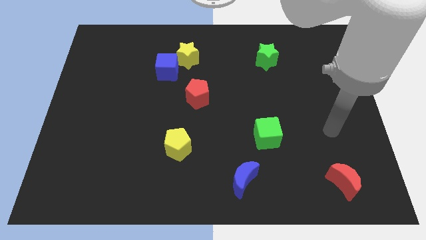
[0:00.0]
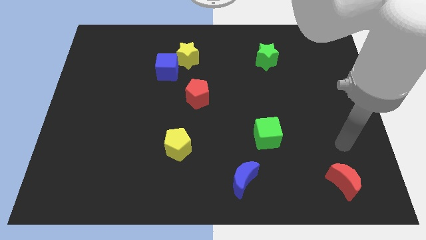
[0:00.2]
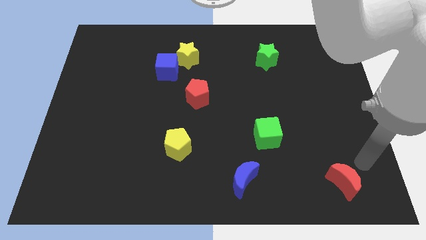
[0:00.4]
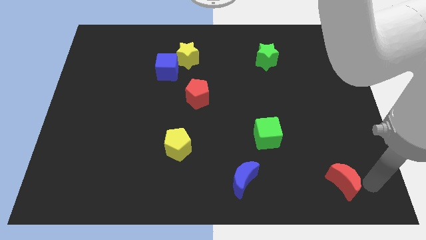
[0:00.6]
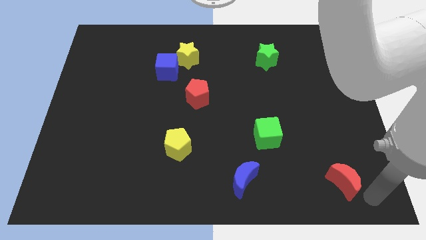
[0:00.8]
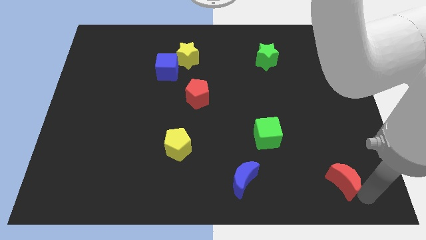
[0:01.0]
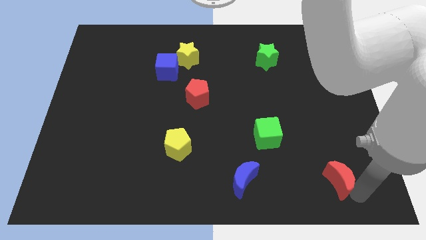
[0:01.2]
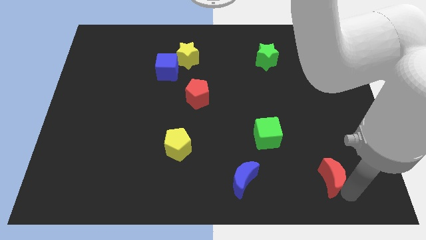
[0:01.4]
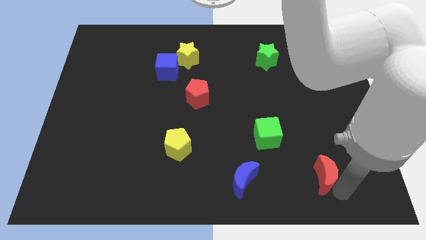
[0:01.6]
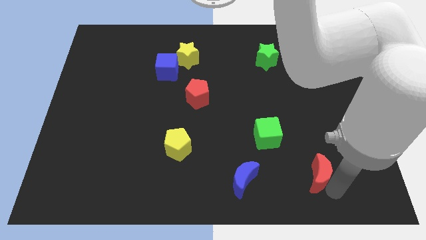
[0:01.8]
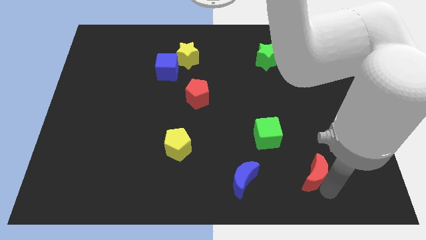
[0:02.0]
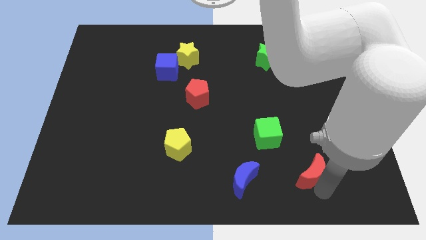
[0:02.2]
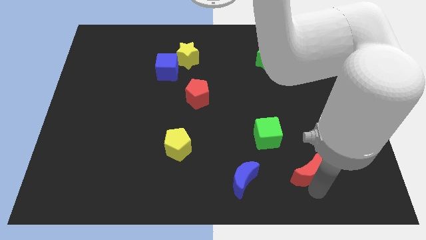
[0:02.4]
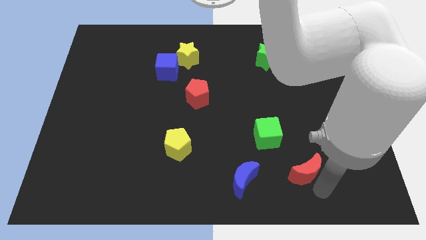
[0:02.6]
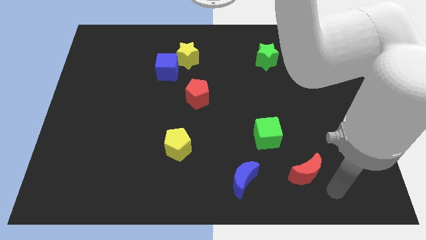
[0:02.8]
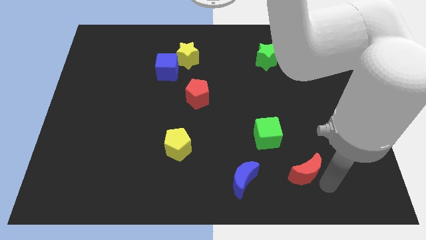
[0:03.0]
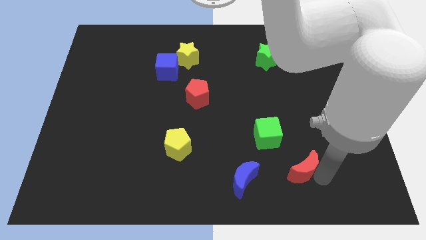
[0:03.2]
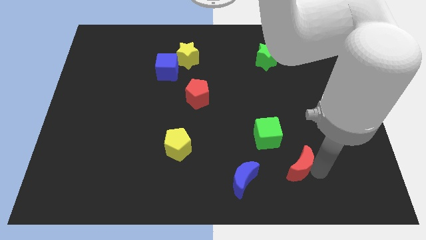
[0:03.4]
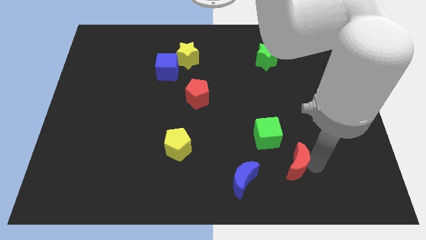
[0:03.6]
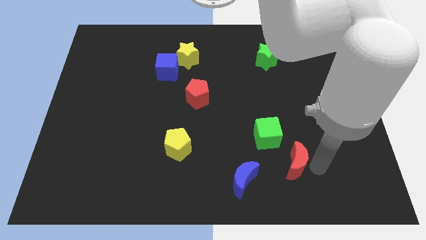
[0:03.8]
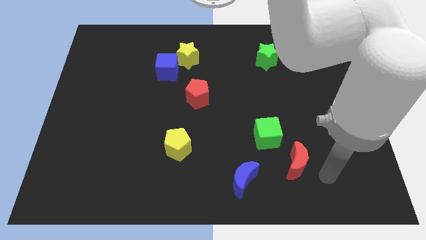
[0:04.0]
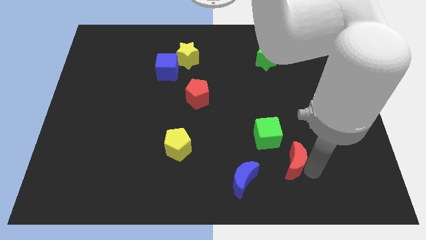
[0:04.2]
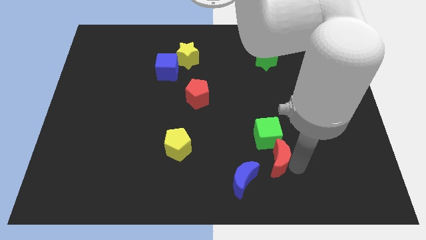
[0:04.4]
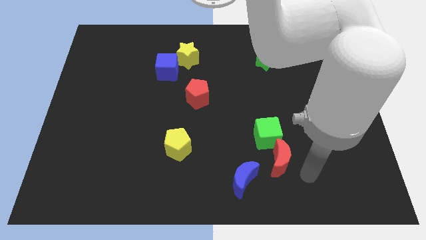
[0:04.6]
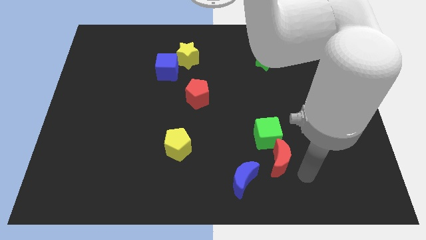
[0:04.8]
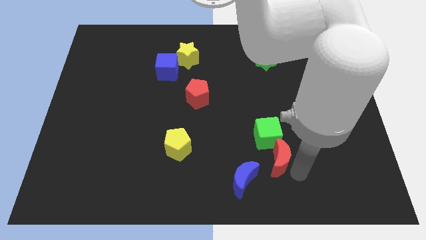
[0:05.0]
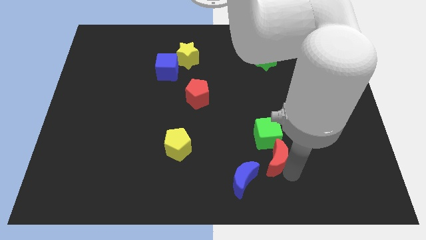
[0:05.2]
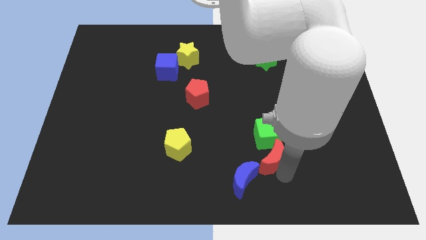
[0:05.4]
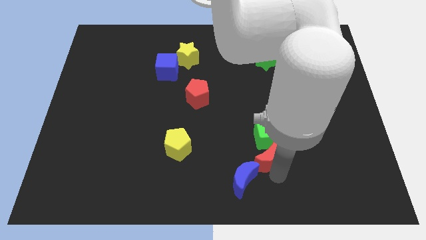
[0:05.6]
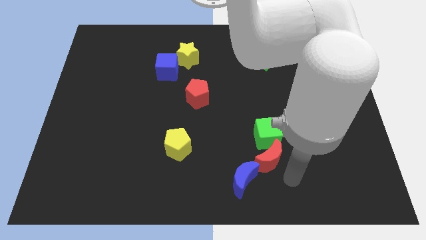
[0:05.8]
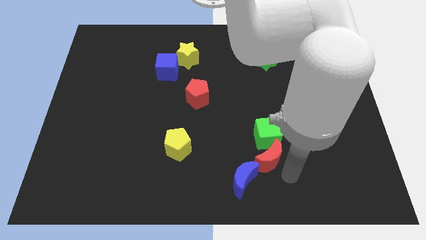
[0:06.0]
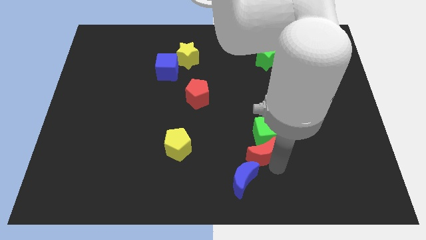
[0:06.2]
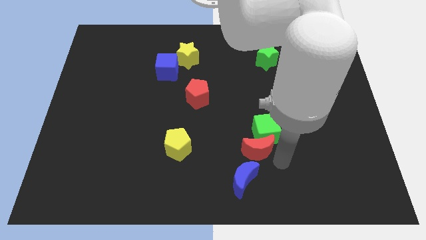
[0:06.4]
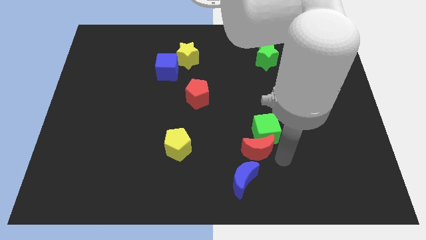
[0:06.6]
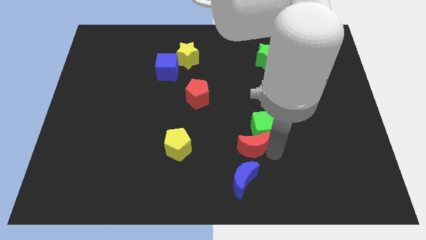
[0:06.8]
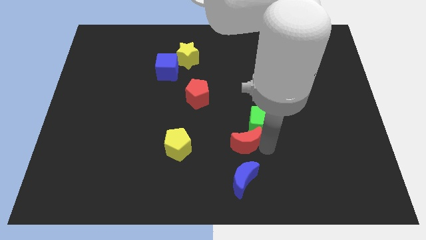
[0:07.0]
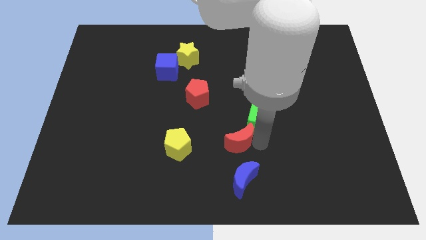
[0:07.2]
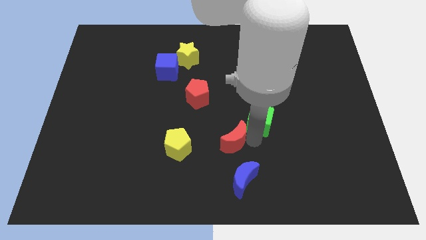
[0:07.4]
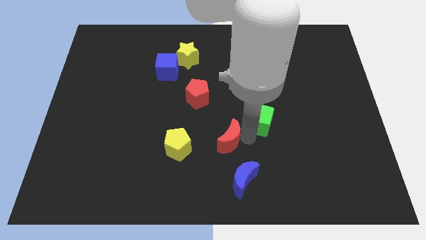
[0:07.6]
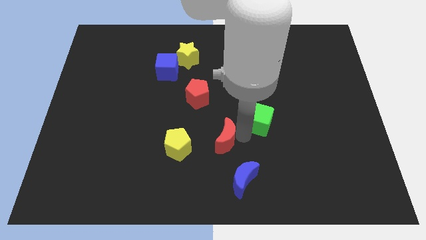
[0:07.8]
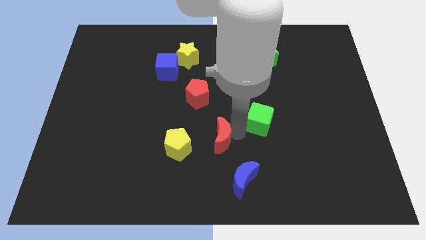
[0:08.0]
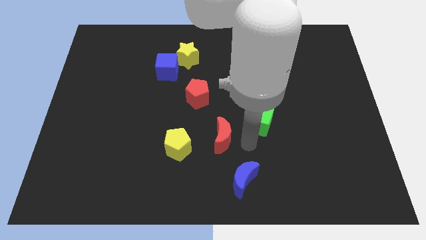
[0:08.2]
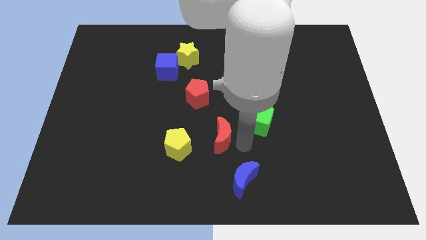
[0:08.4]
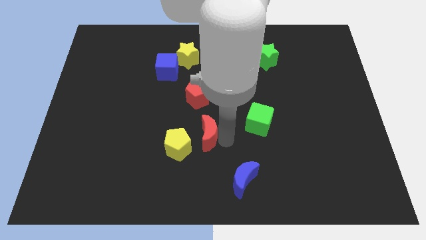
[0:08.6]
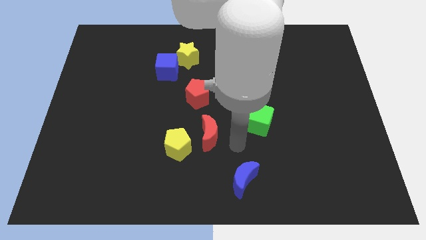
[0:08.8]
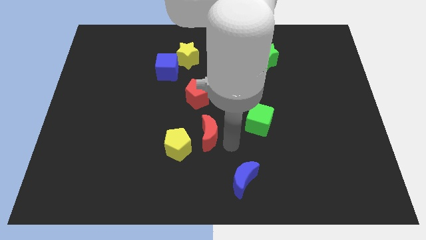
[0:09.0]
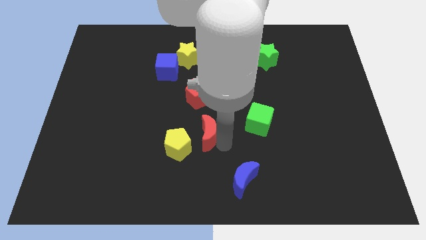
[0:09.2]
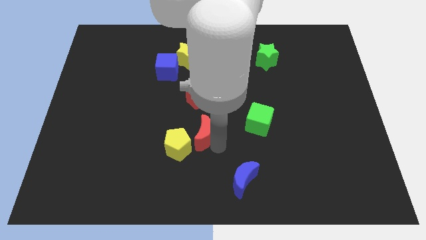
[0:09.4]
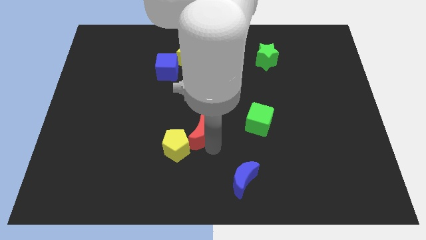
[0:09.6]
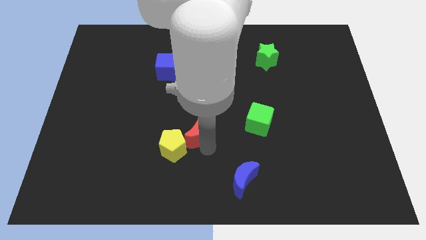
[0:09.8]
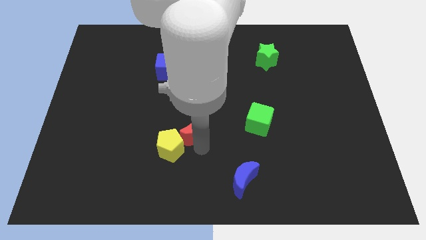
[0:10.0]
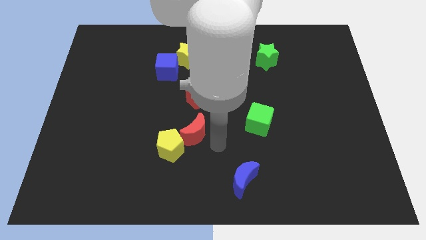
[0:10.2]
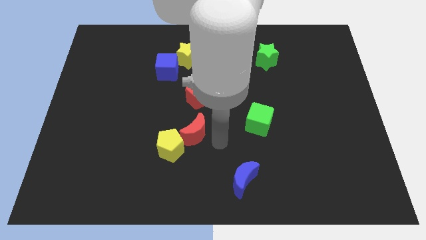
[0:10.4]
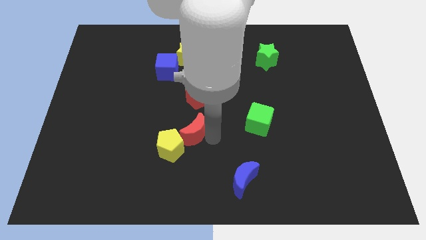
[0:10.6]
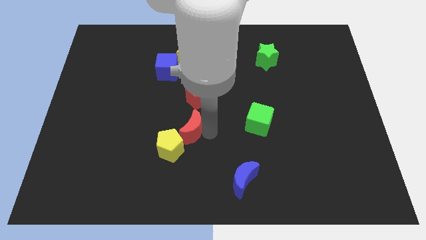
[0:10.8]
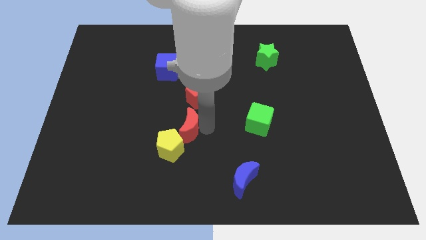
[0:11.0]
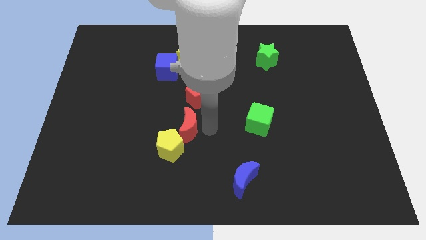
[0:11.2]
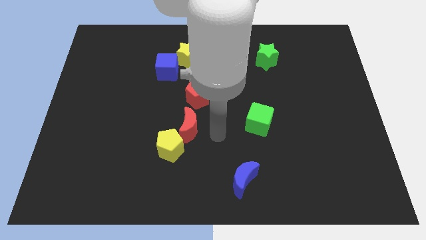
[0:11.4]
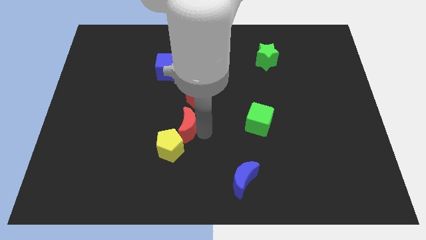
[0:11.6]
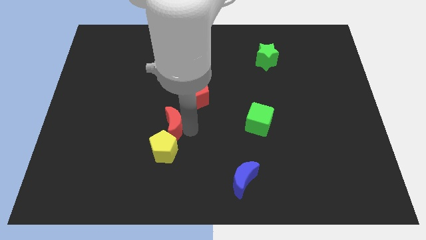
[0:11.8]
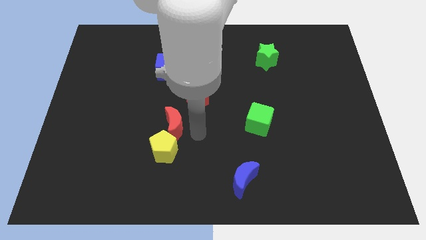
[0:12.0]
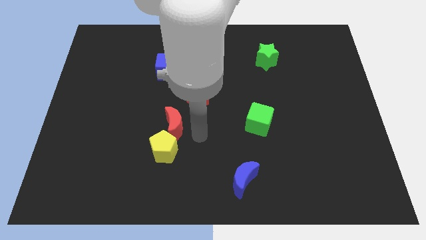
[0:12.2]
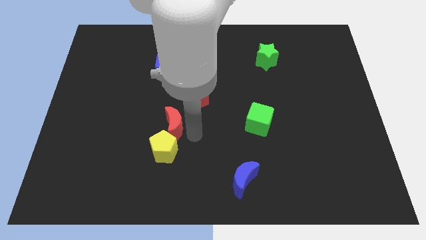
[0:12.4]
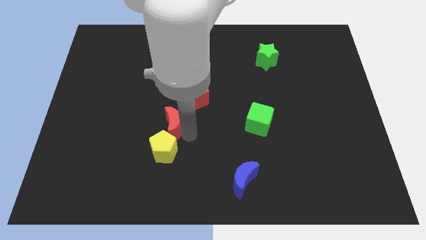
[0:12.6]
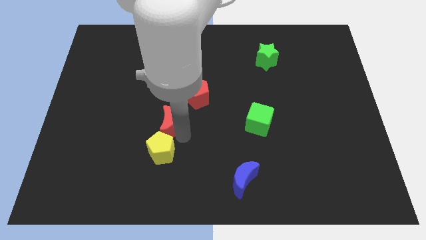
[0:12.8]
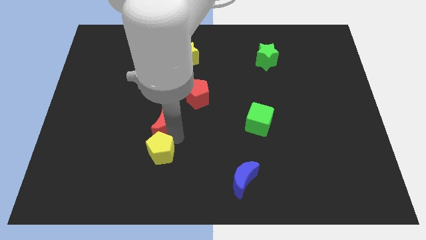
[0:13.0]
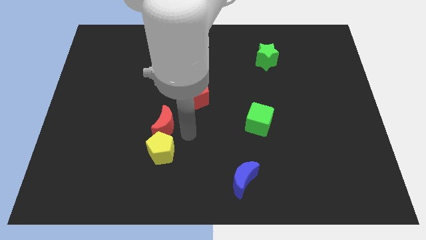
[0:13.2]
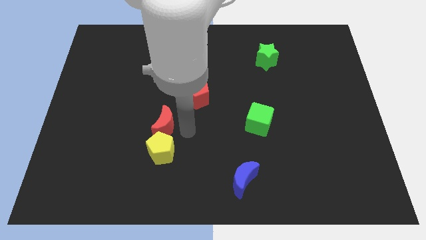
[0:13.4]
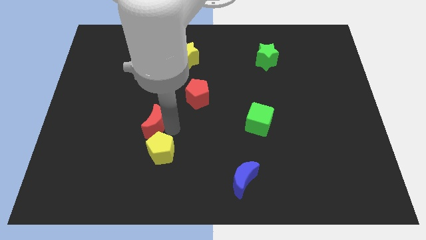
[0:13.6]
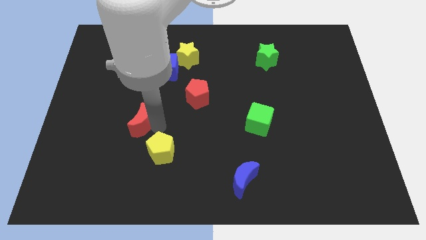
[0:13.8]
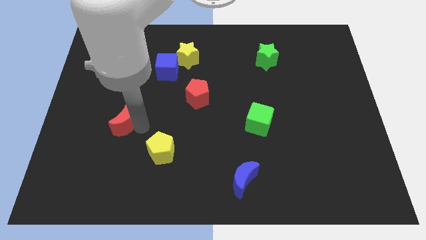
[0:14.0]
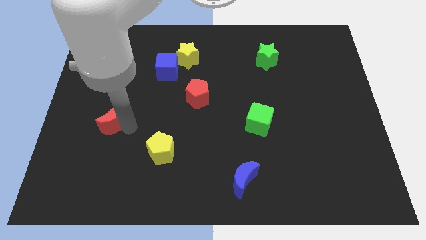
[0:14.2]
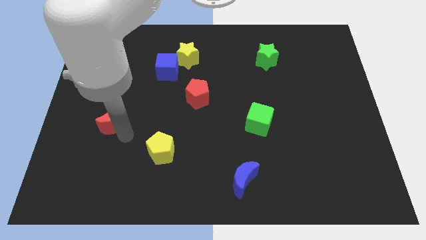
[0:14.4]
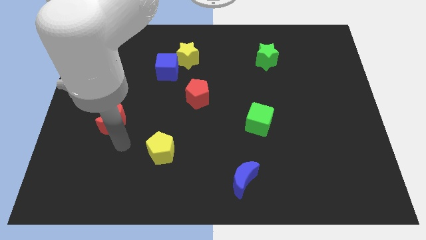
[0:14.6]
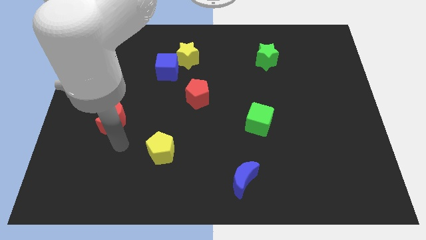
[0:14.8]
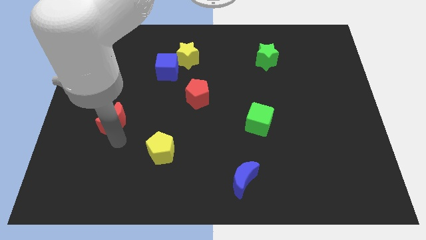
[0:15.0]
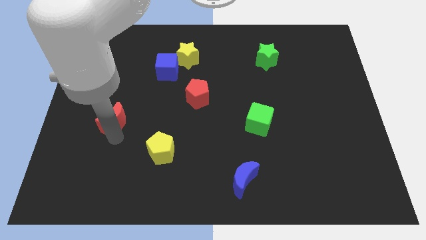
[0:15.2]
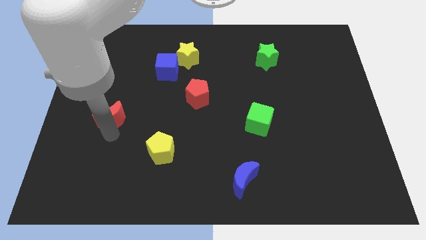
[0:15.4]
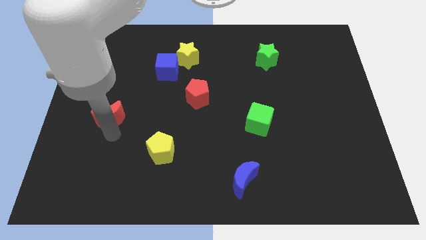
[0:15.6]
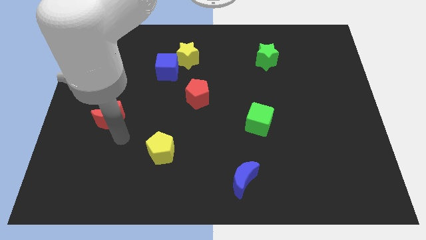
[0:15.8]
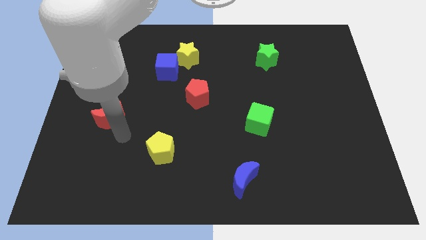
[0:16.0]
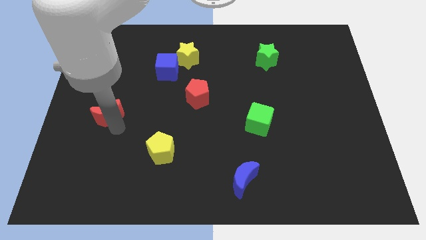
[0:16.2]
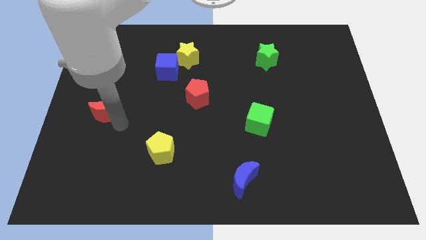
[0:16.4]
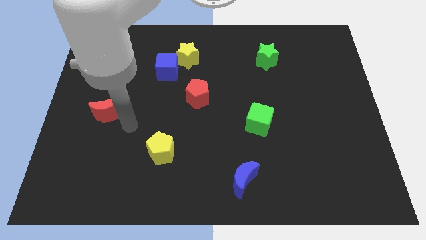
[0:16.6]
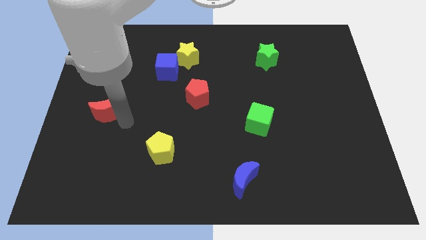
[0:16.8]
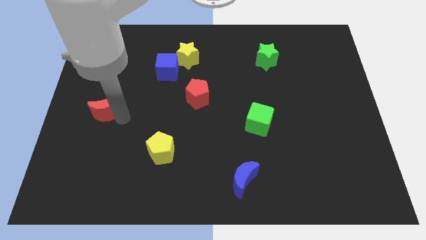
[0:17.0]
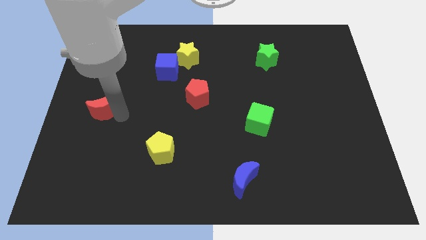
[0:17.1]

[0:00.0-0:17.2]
move the red moon to the center left
